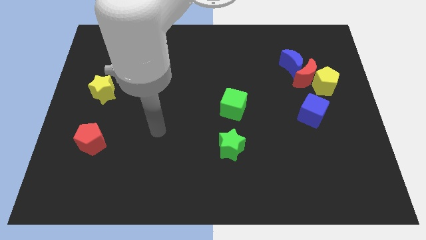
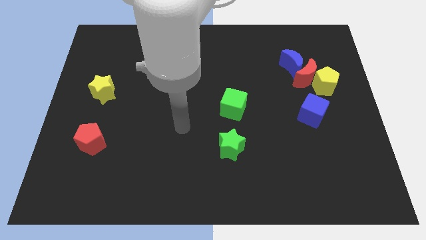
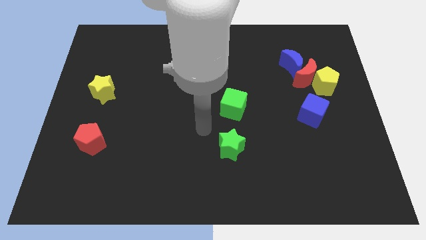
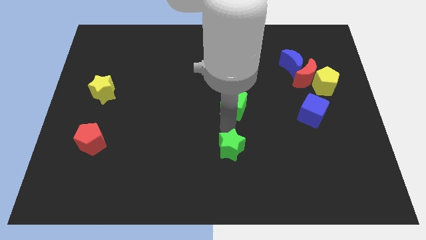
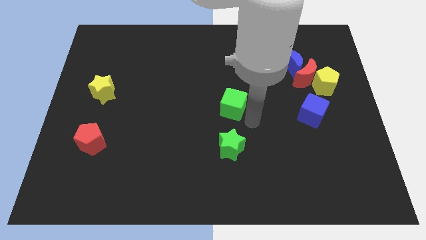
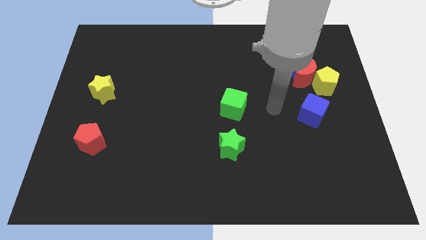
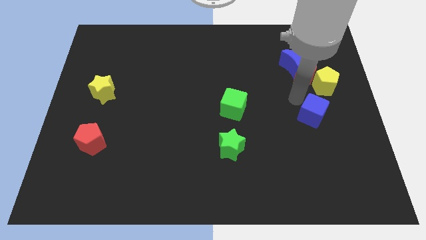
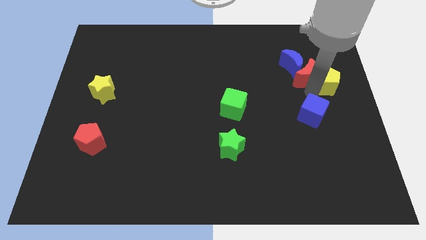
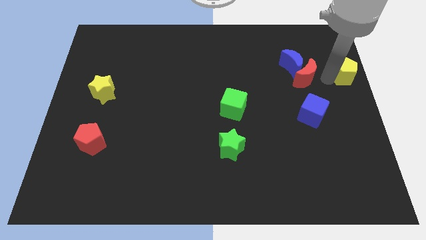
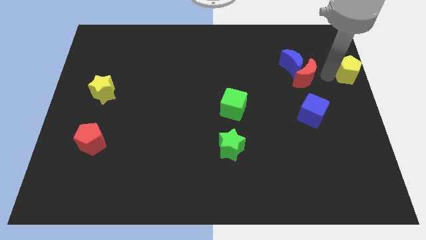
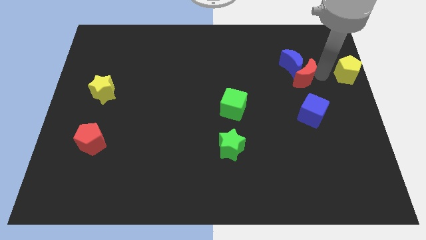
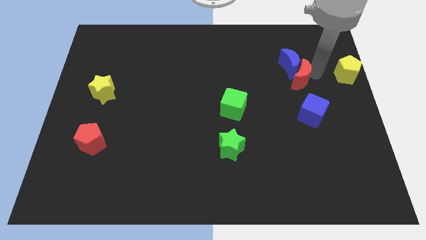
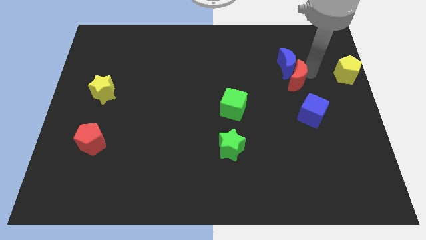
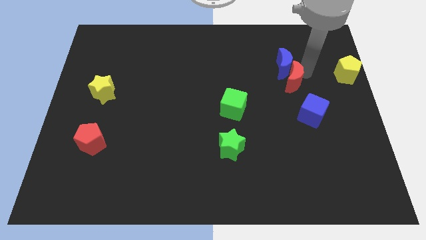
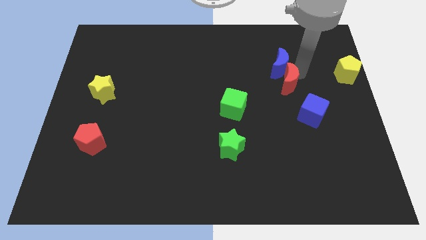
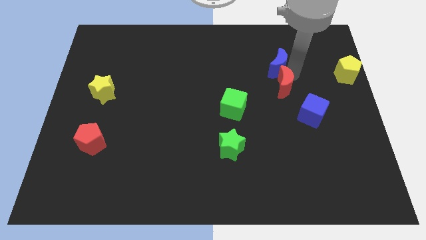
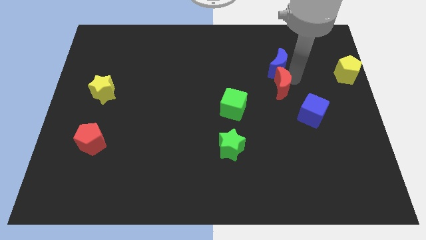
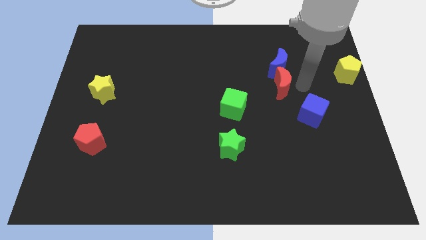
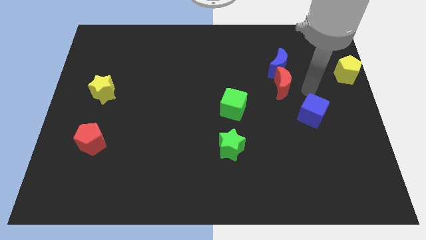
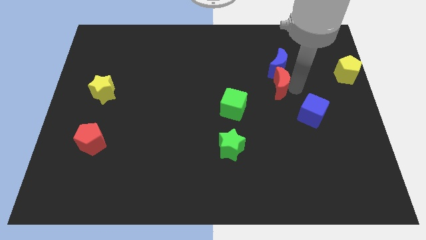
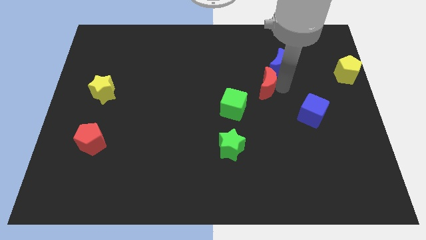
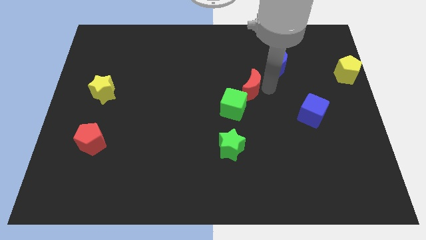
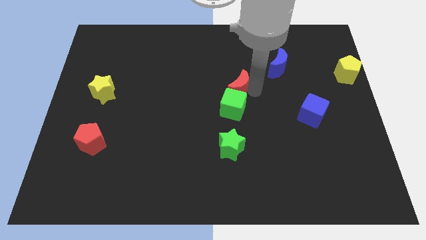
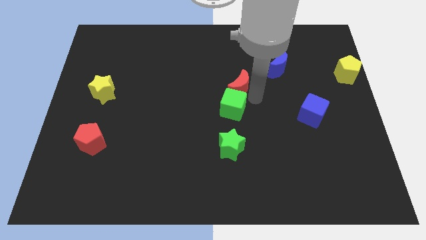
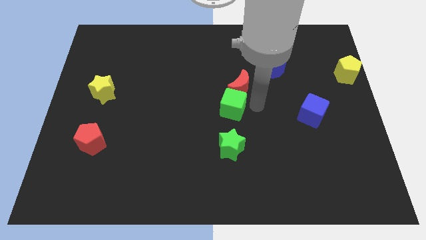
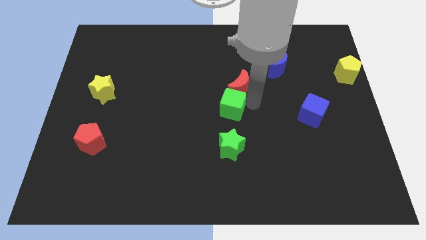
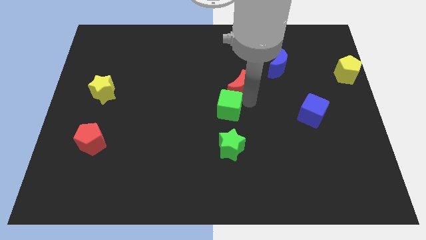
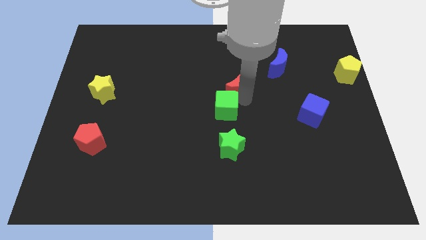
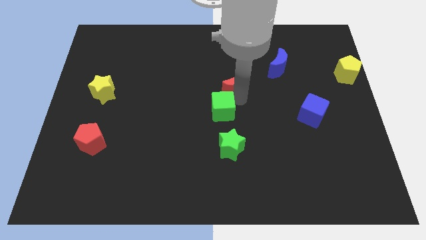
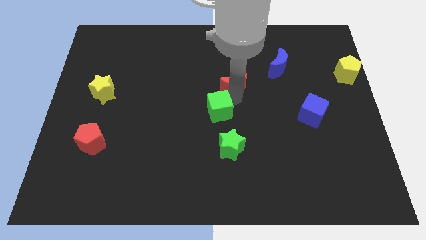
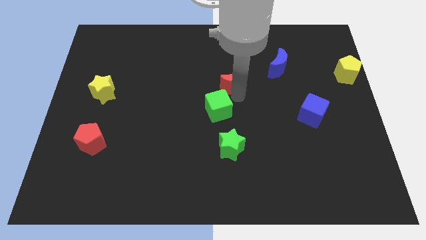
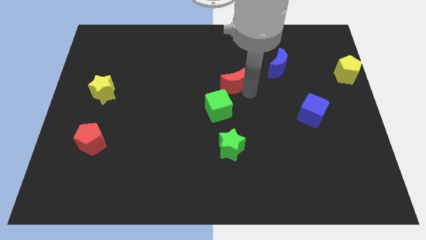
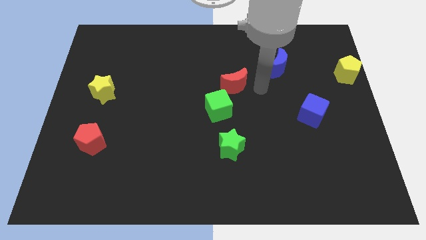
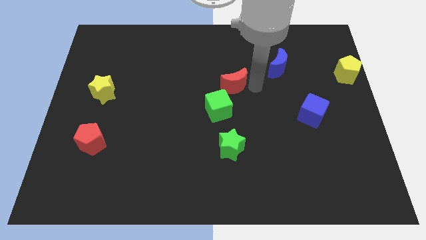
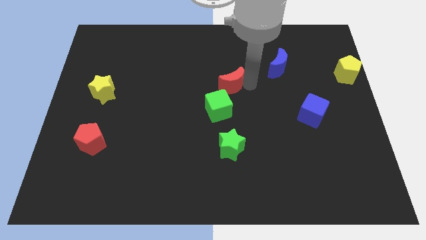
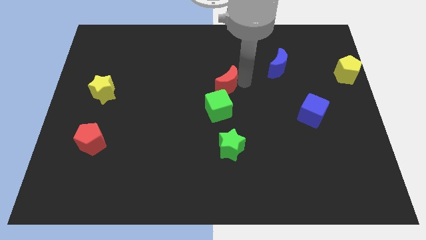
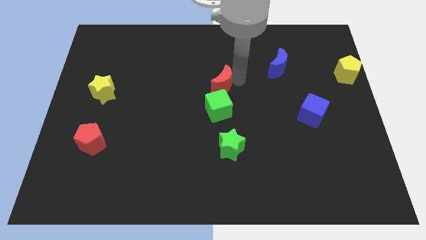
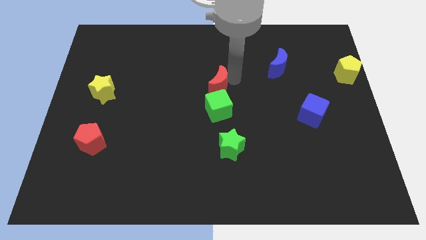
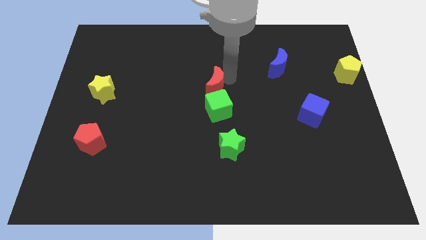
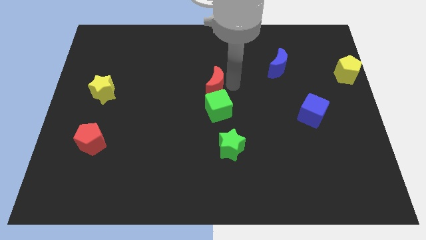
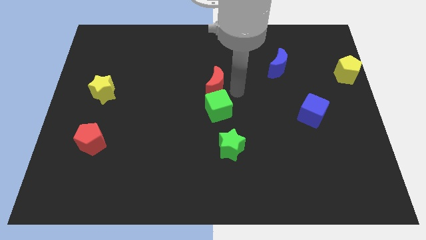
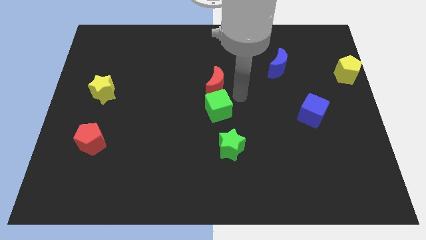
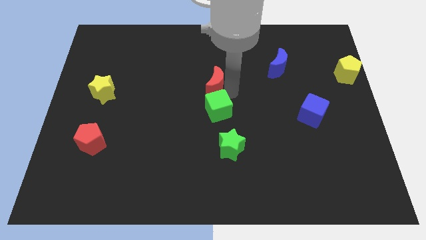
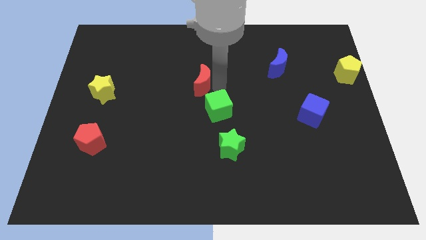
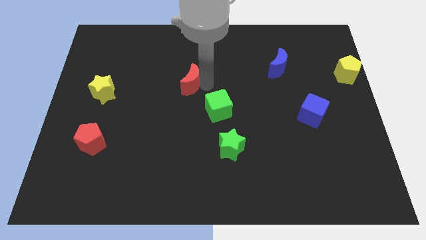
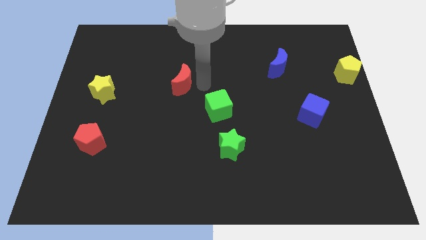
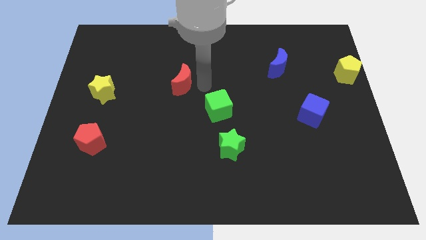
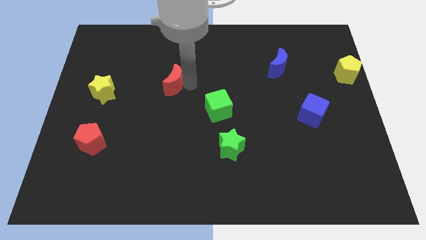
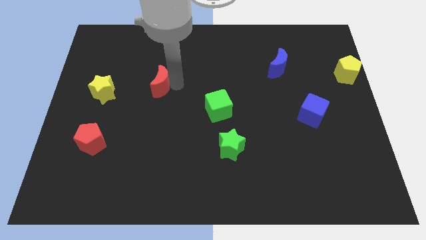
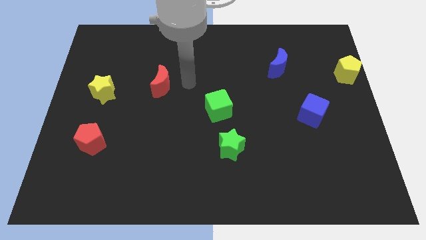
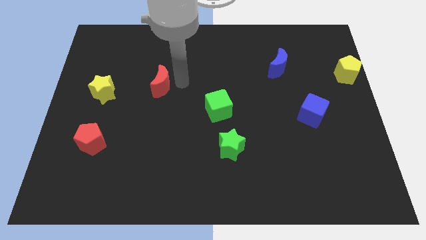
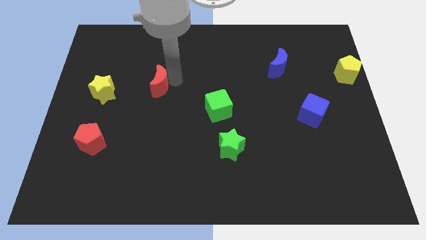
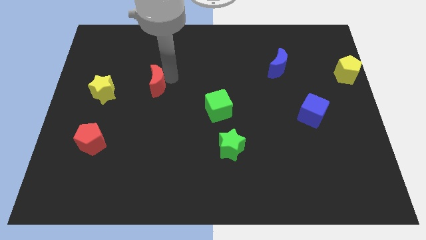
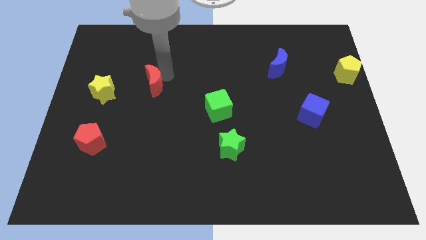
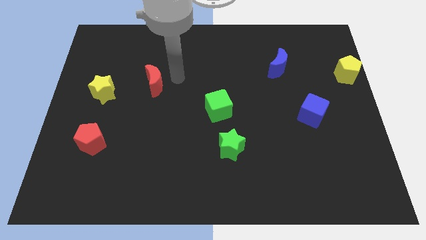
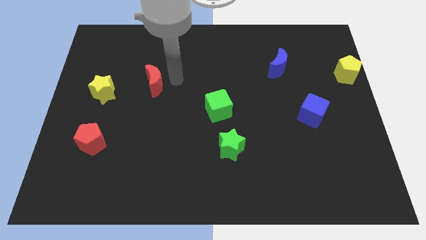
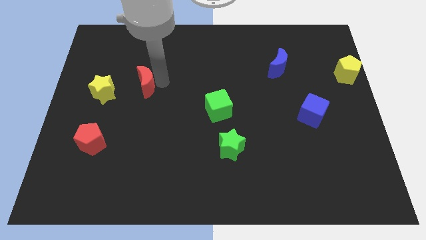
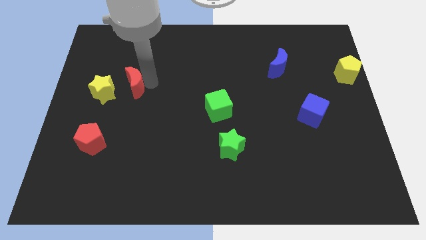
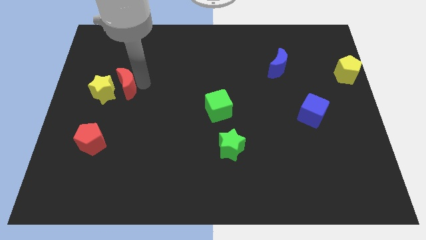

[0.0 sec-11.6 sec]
slide the red moon close to the yellow star

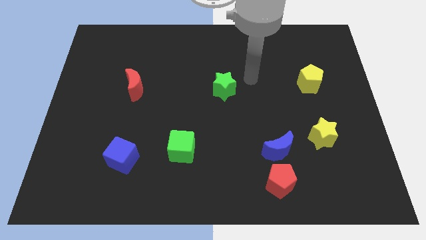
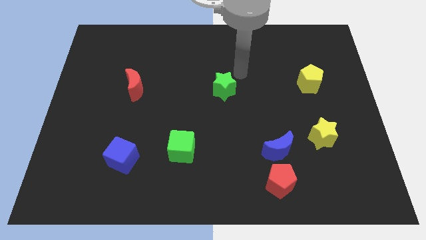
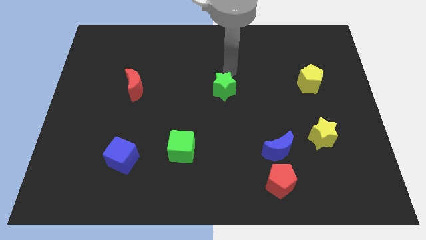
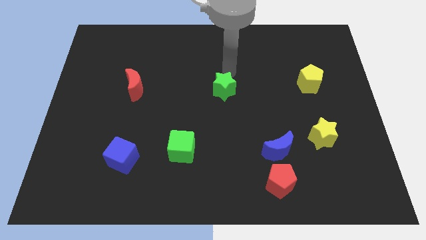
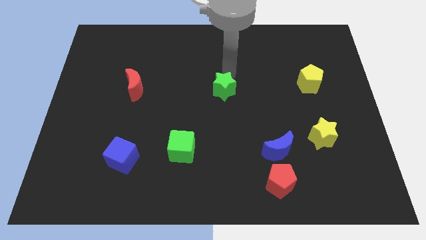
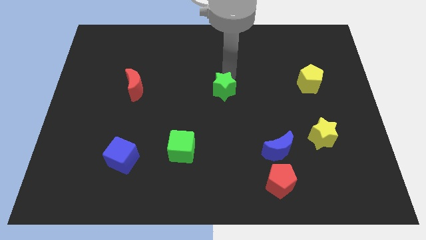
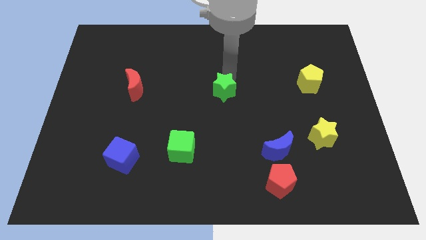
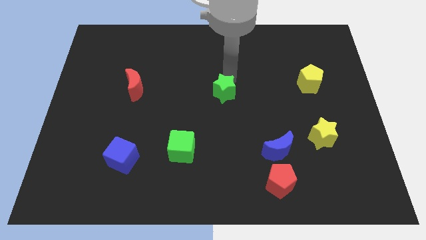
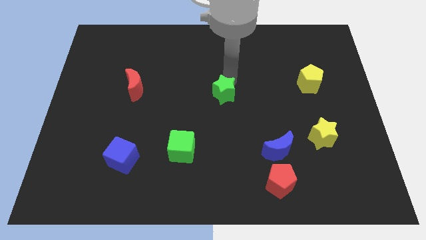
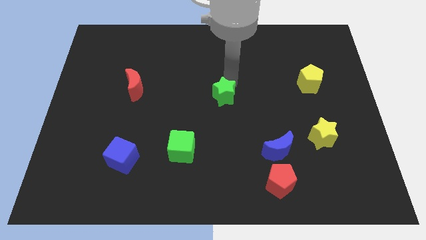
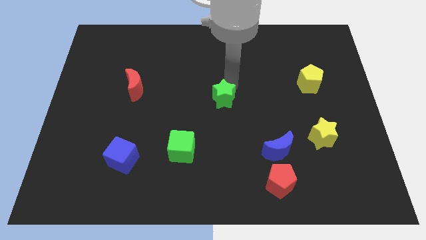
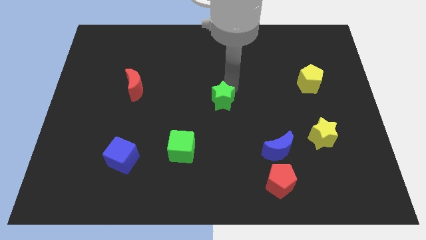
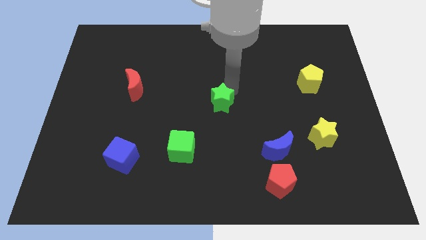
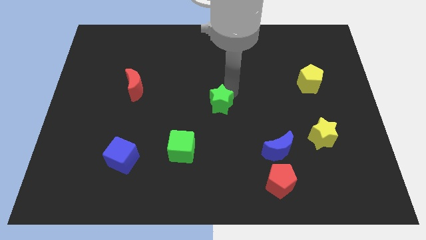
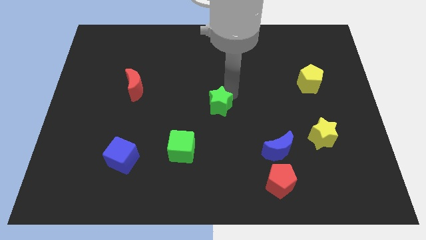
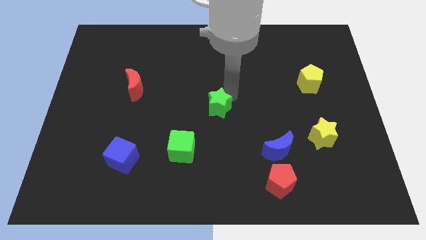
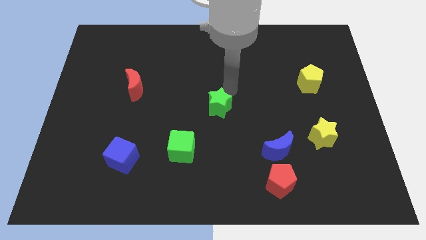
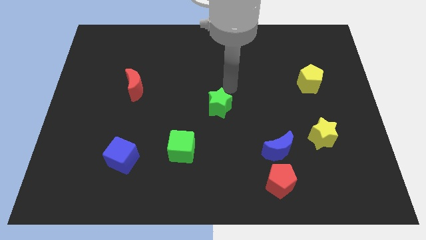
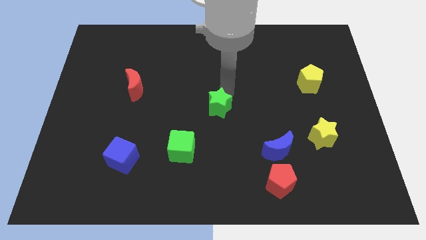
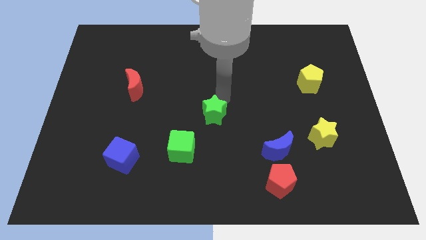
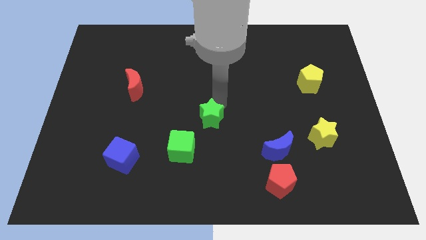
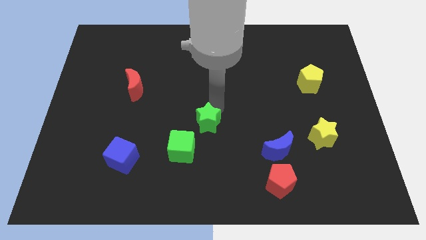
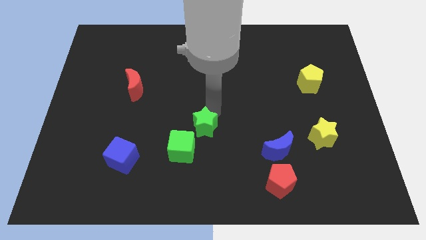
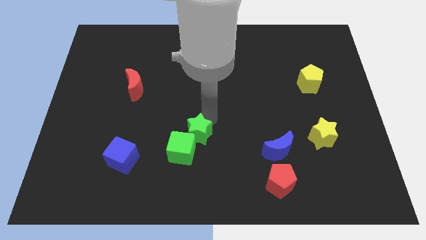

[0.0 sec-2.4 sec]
put the green star towards the green cube
